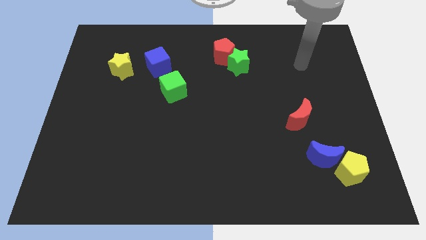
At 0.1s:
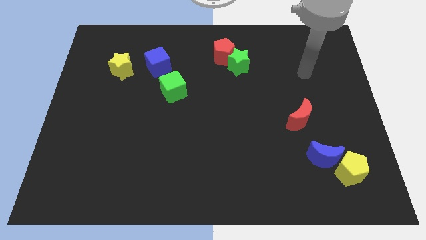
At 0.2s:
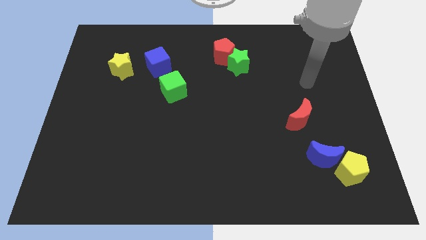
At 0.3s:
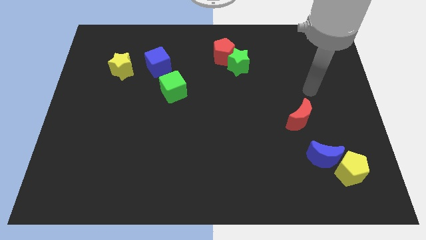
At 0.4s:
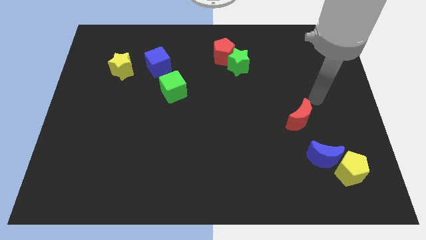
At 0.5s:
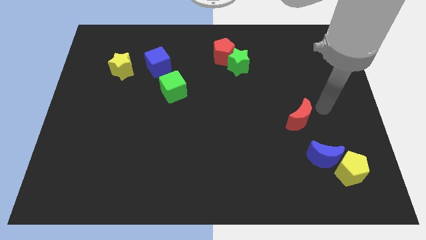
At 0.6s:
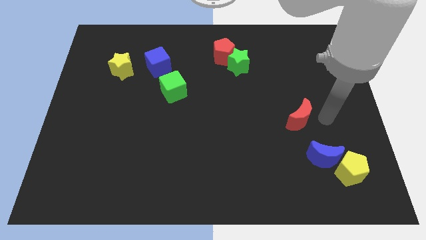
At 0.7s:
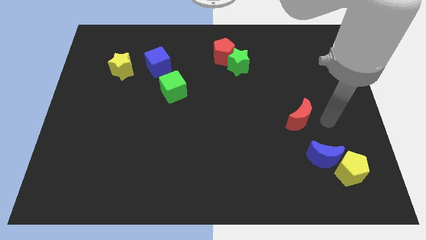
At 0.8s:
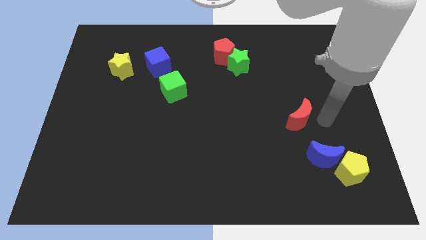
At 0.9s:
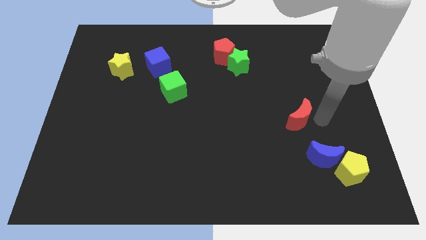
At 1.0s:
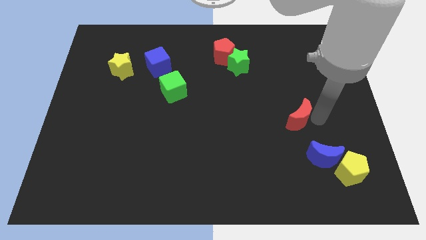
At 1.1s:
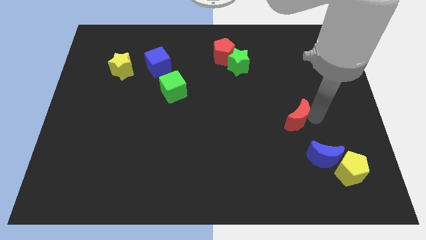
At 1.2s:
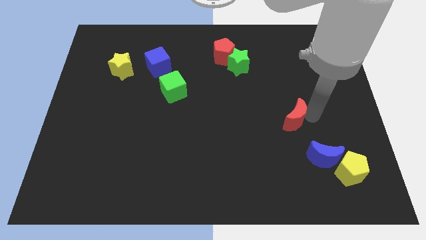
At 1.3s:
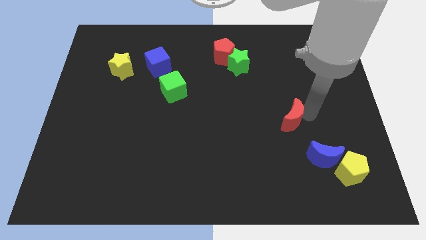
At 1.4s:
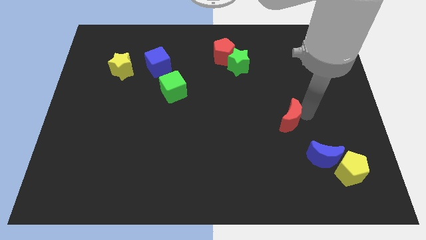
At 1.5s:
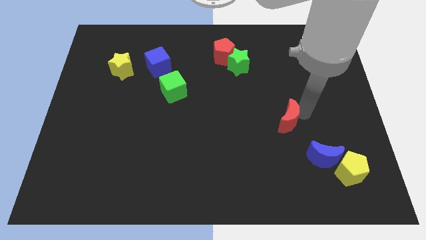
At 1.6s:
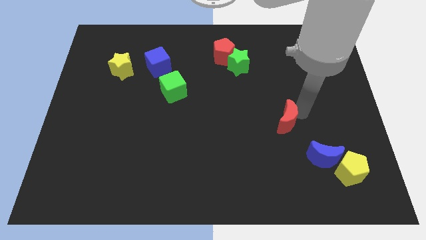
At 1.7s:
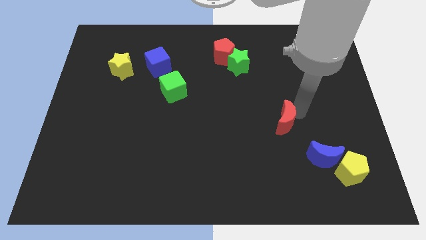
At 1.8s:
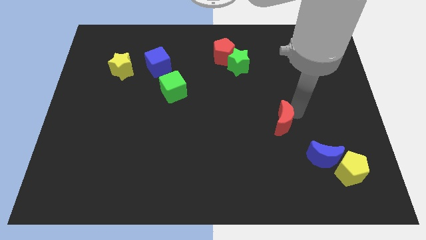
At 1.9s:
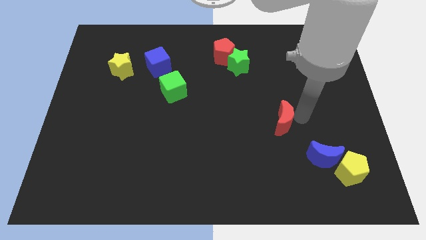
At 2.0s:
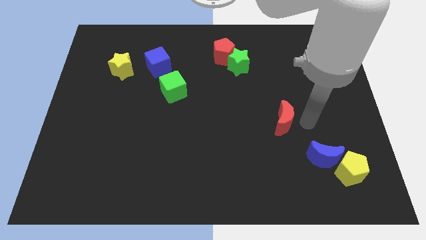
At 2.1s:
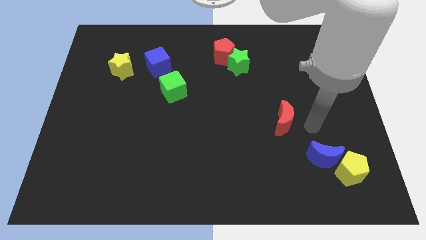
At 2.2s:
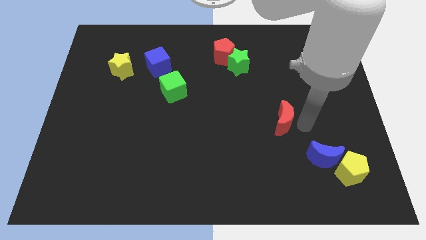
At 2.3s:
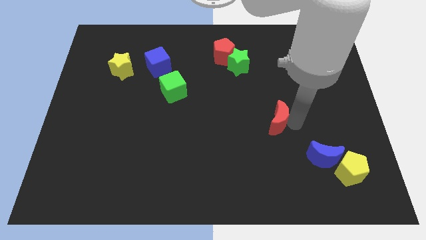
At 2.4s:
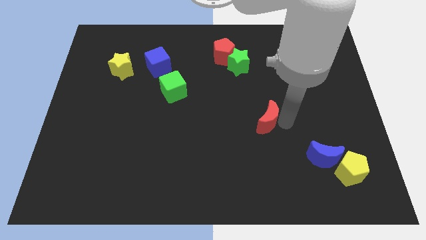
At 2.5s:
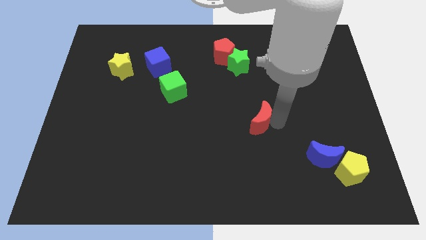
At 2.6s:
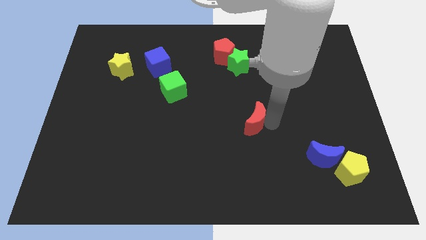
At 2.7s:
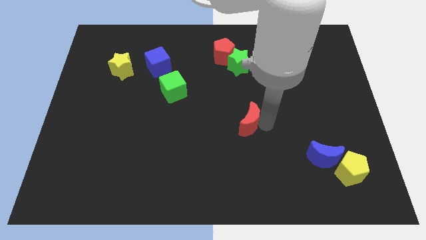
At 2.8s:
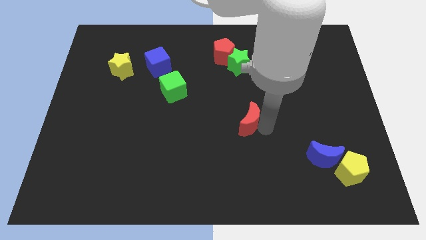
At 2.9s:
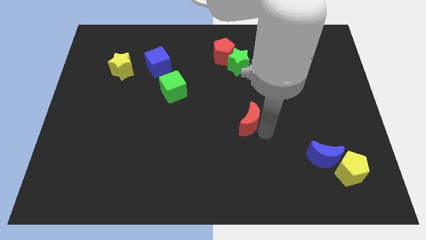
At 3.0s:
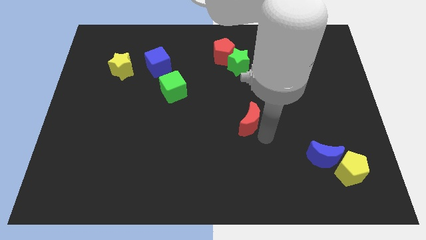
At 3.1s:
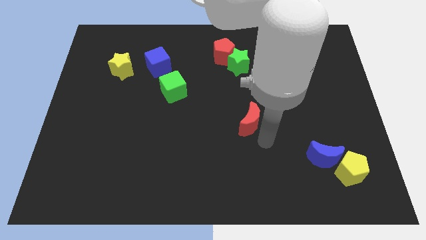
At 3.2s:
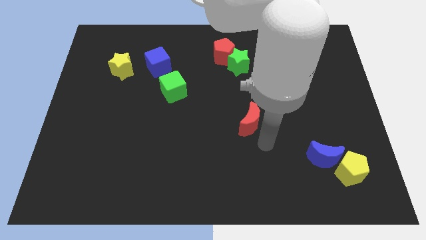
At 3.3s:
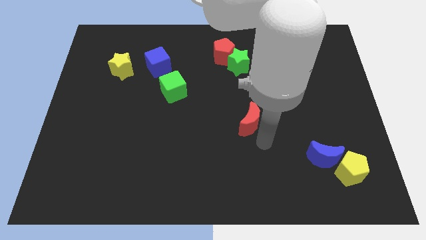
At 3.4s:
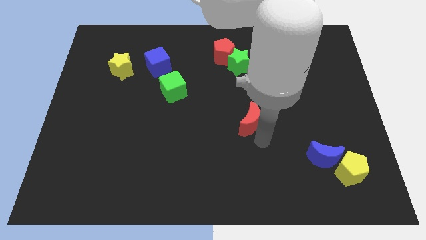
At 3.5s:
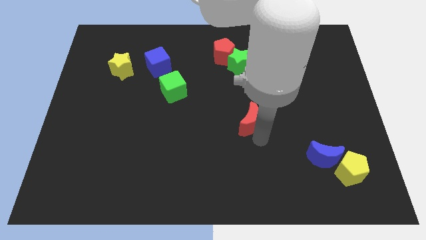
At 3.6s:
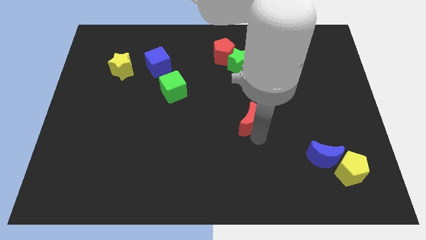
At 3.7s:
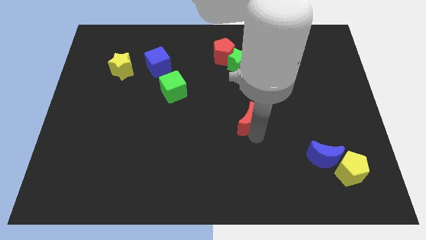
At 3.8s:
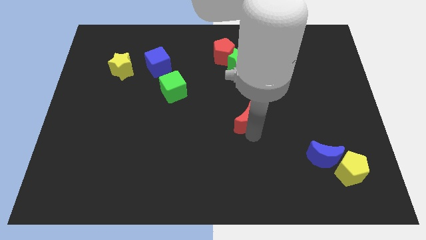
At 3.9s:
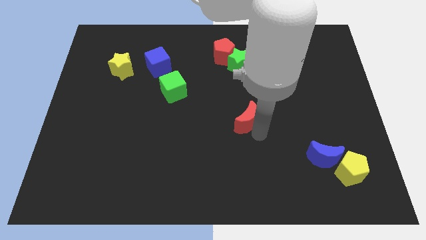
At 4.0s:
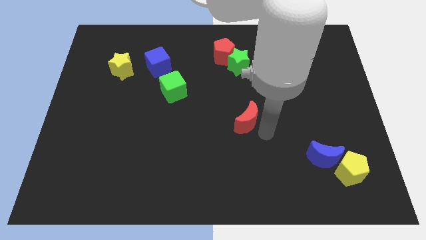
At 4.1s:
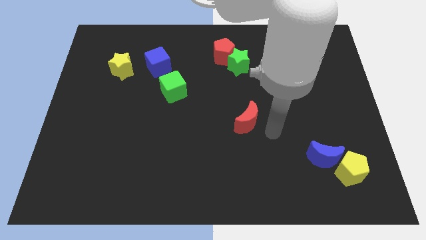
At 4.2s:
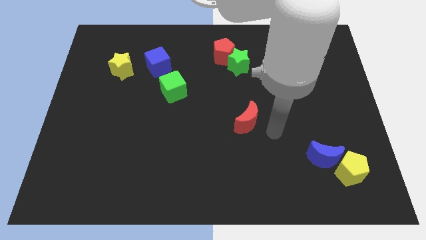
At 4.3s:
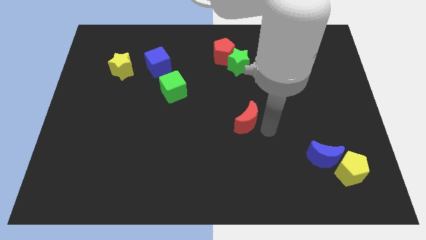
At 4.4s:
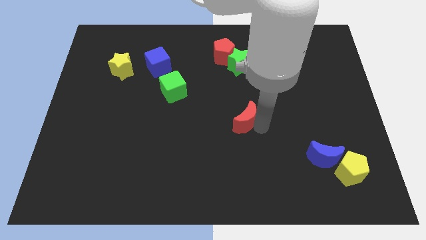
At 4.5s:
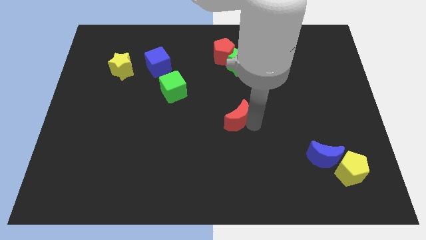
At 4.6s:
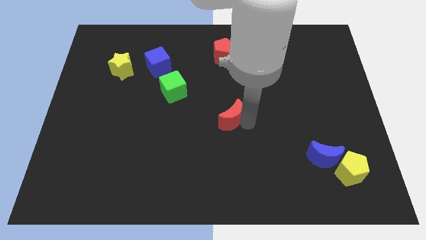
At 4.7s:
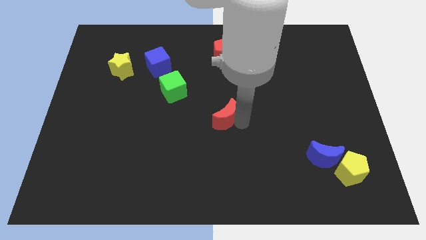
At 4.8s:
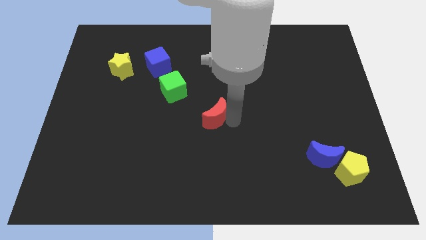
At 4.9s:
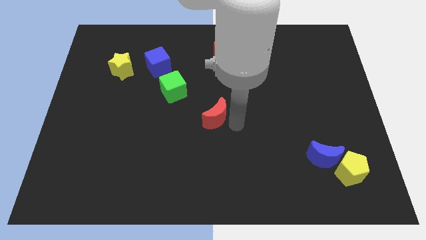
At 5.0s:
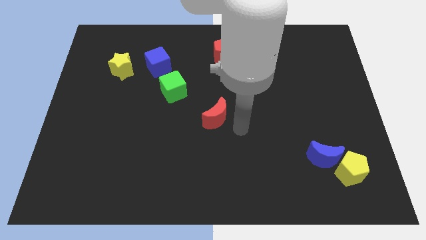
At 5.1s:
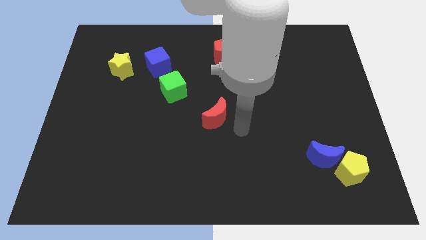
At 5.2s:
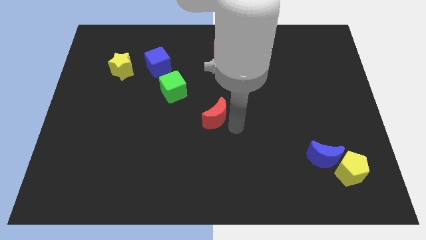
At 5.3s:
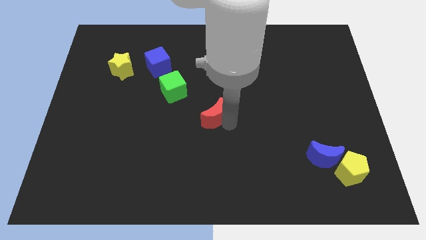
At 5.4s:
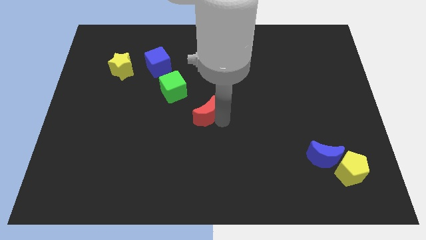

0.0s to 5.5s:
put the red moon to the bottom right side of the green cube

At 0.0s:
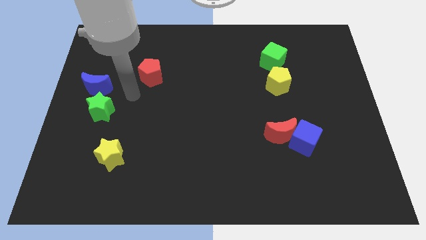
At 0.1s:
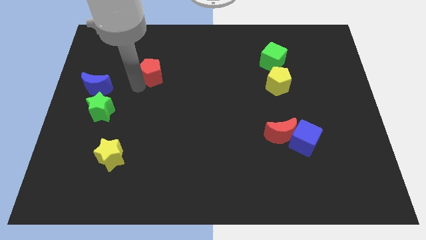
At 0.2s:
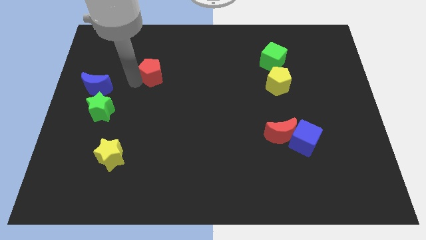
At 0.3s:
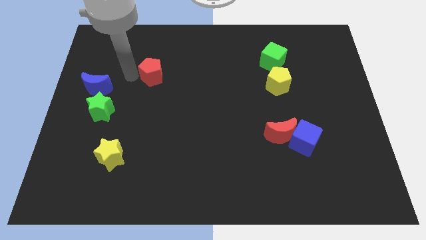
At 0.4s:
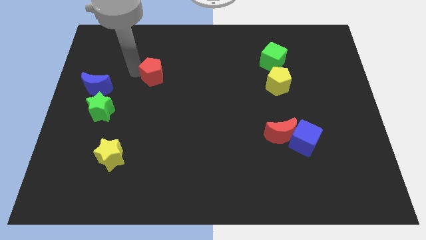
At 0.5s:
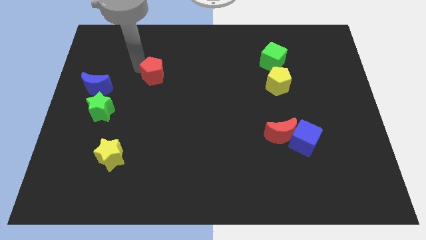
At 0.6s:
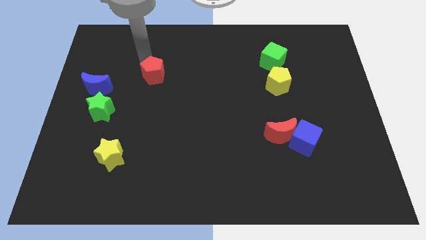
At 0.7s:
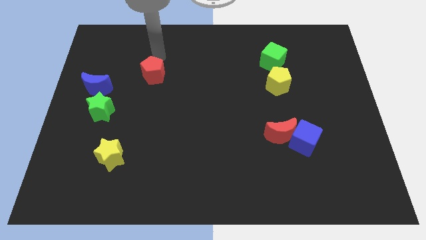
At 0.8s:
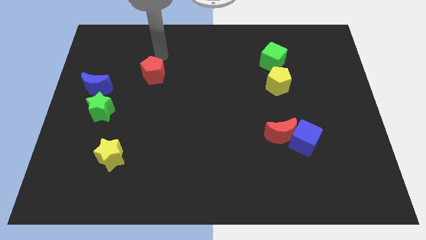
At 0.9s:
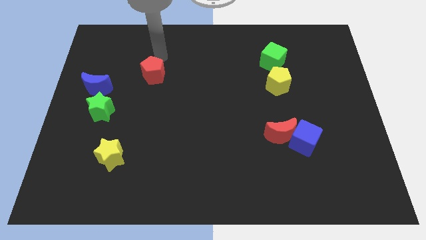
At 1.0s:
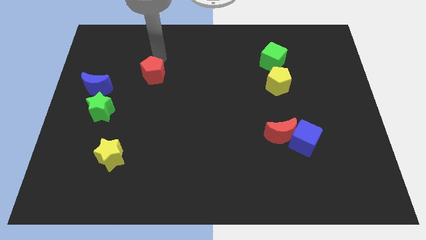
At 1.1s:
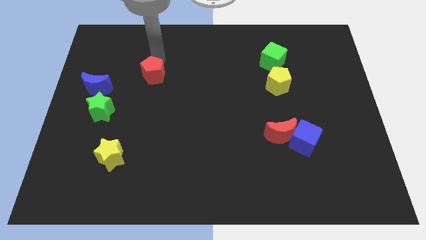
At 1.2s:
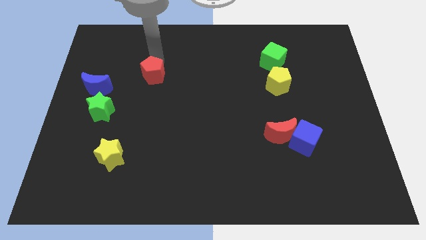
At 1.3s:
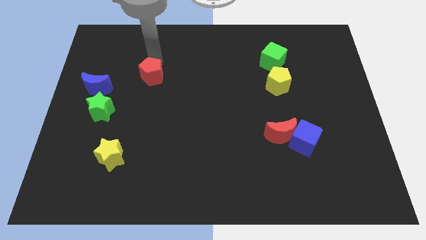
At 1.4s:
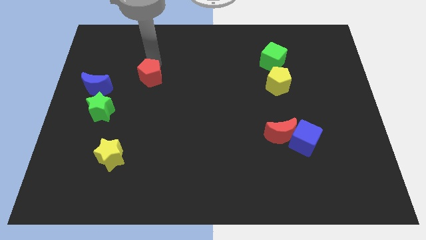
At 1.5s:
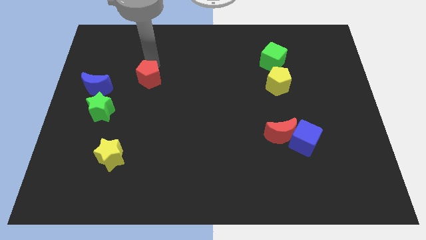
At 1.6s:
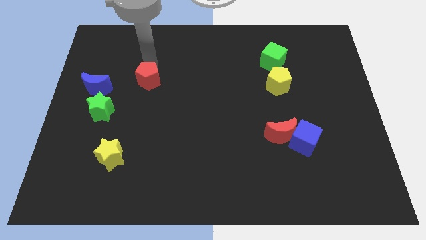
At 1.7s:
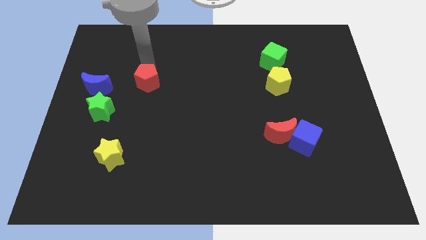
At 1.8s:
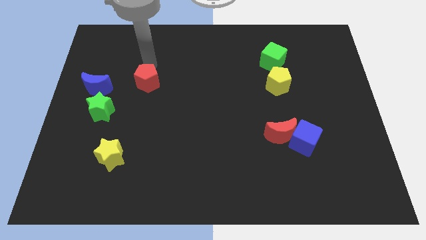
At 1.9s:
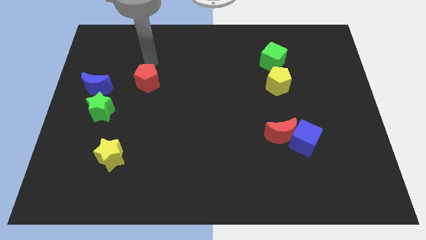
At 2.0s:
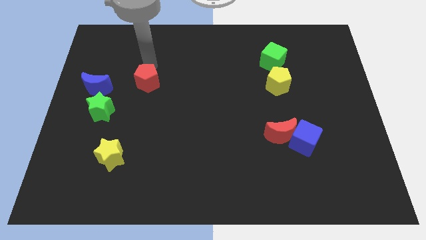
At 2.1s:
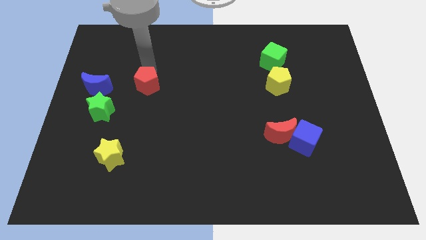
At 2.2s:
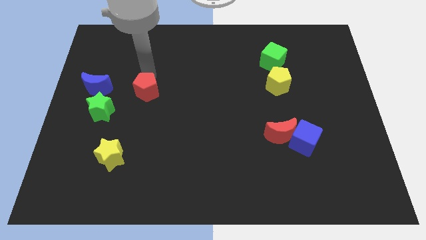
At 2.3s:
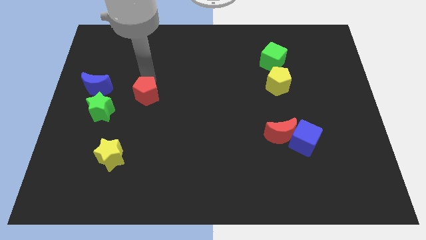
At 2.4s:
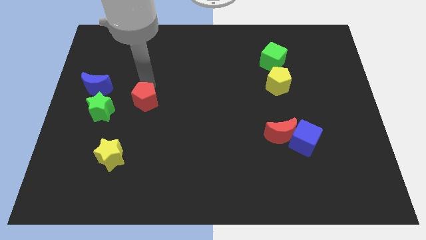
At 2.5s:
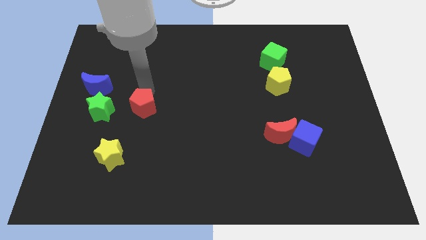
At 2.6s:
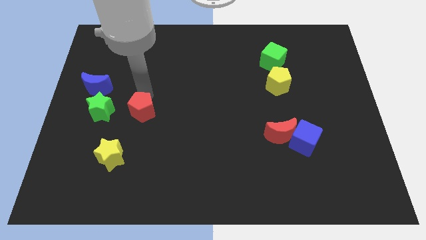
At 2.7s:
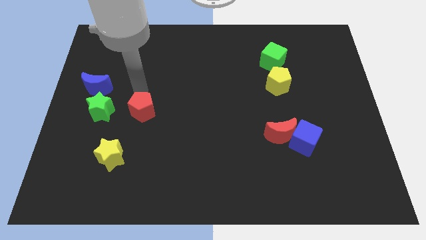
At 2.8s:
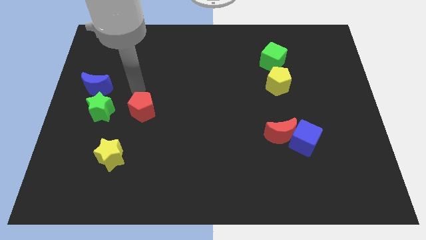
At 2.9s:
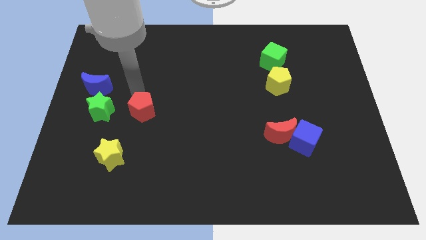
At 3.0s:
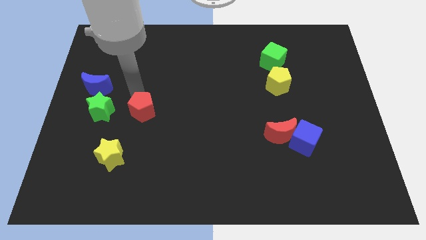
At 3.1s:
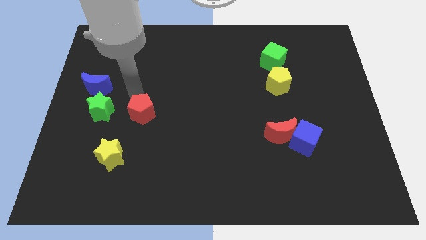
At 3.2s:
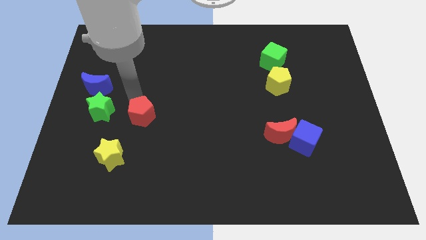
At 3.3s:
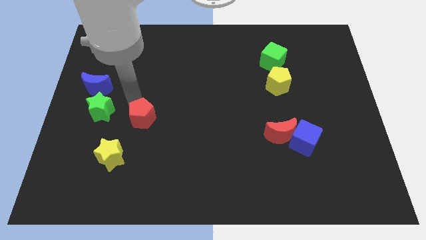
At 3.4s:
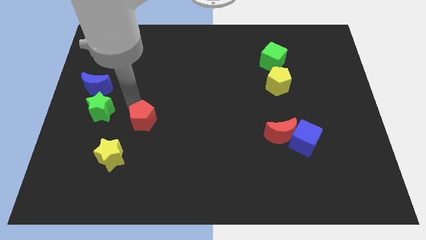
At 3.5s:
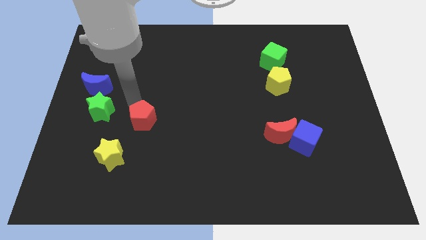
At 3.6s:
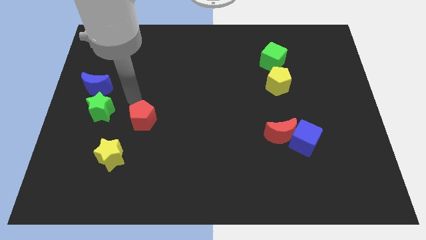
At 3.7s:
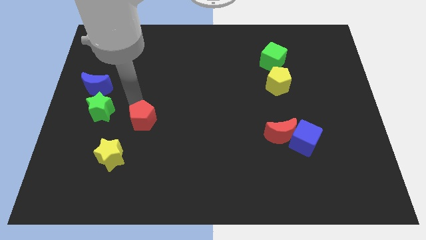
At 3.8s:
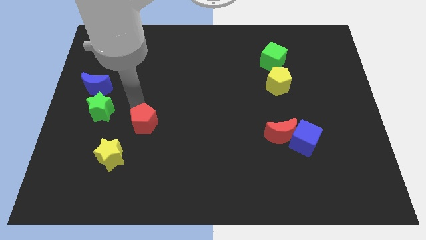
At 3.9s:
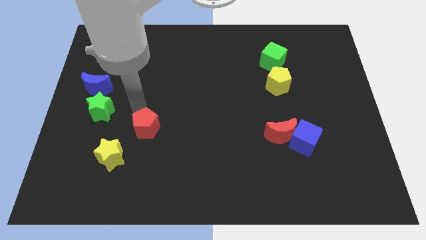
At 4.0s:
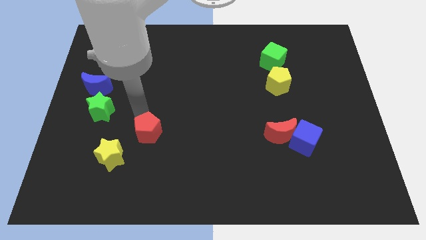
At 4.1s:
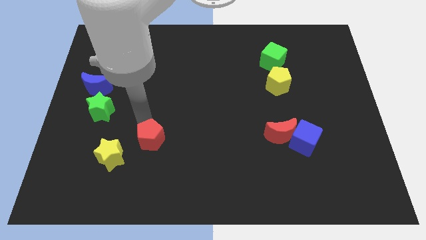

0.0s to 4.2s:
put the red pentagon just right of the yellow star
